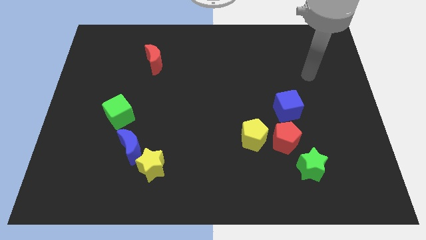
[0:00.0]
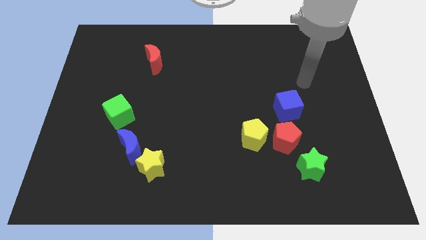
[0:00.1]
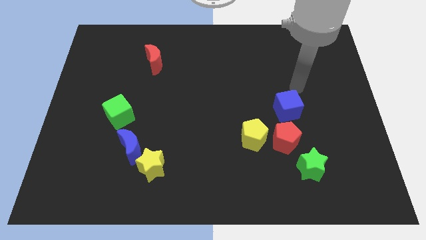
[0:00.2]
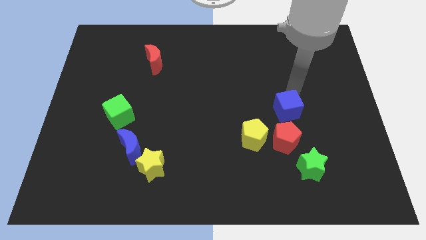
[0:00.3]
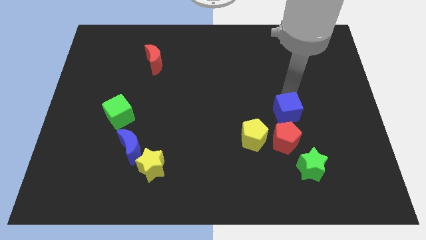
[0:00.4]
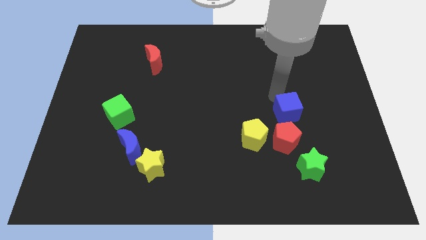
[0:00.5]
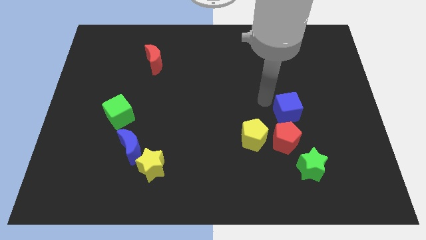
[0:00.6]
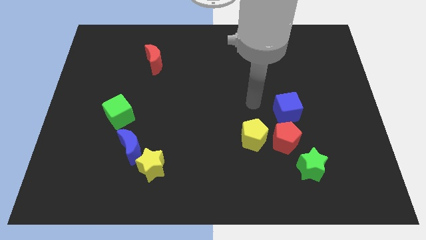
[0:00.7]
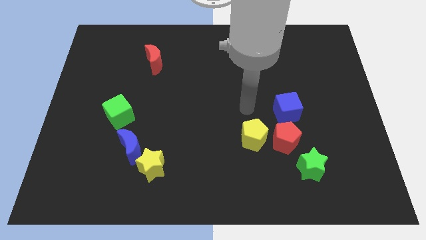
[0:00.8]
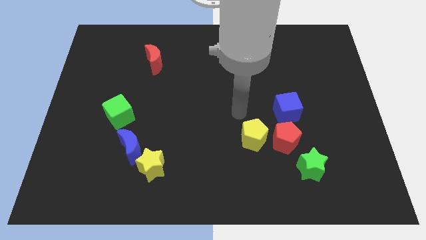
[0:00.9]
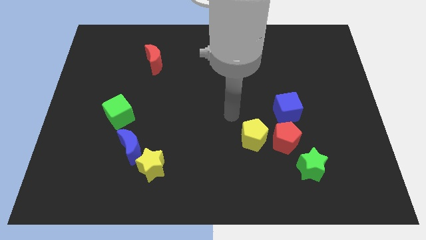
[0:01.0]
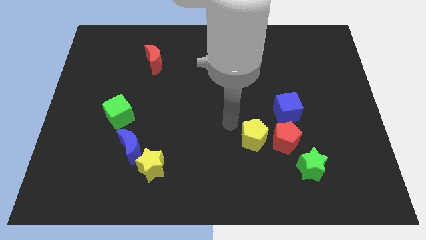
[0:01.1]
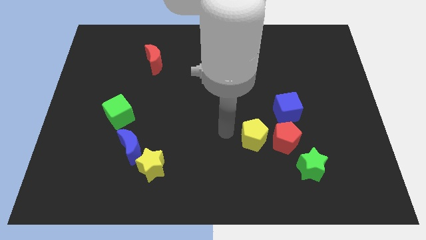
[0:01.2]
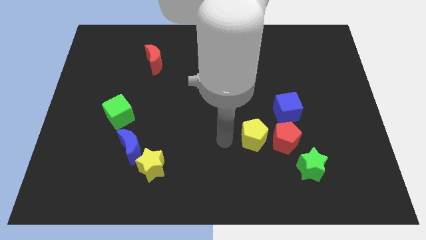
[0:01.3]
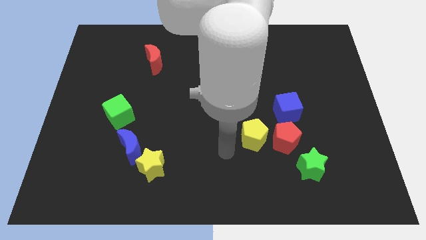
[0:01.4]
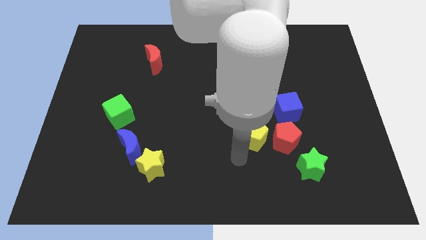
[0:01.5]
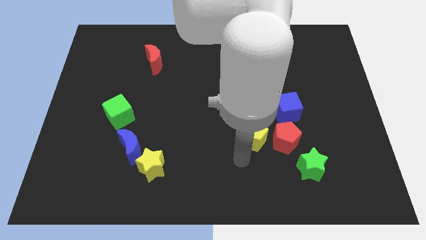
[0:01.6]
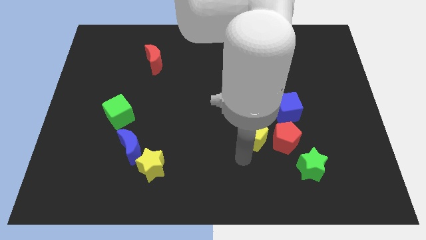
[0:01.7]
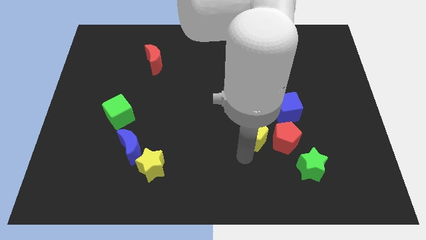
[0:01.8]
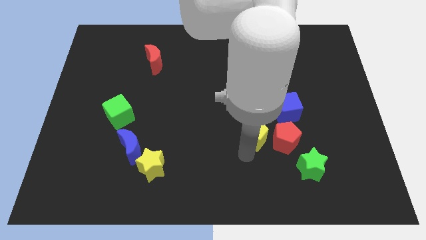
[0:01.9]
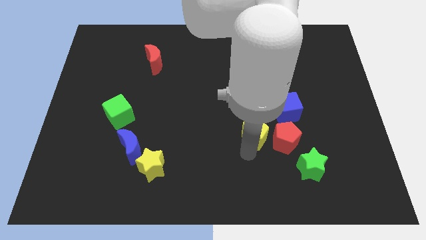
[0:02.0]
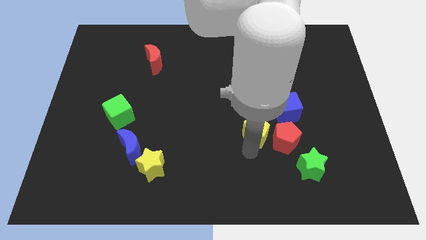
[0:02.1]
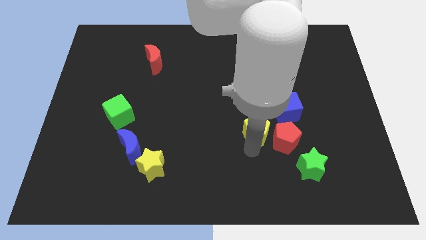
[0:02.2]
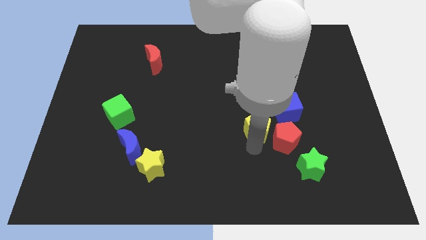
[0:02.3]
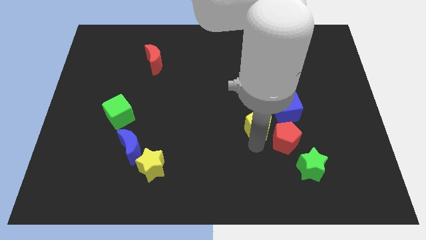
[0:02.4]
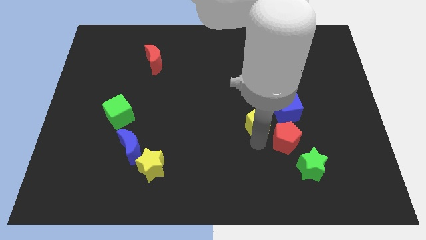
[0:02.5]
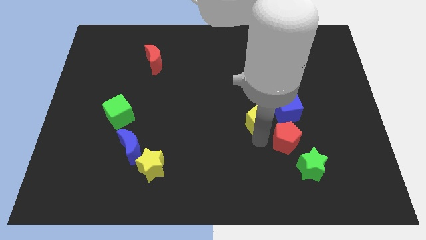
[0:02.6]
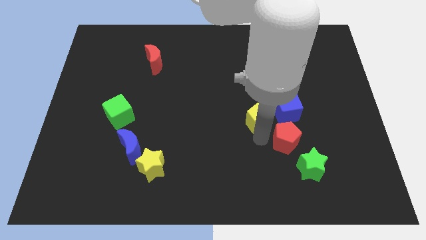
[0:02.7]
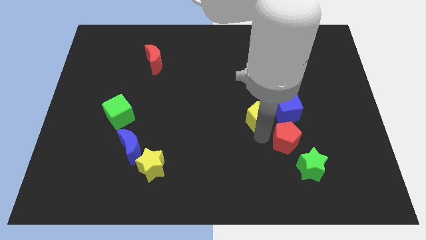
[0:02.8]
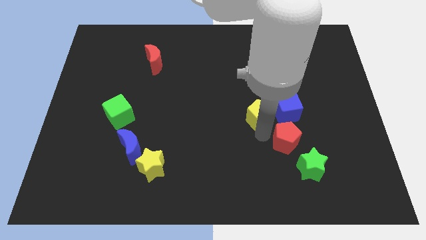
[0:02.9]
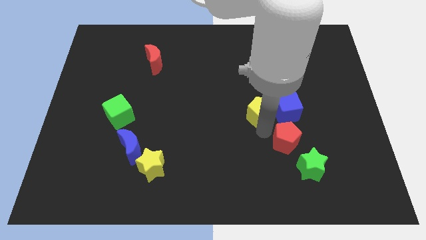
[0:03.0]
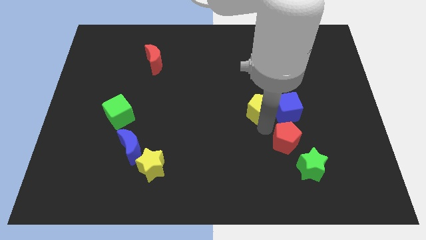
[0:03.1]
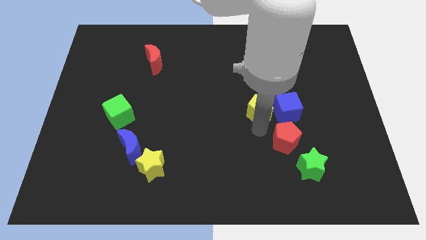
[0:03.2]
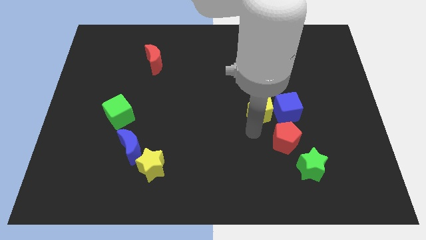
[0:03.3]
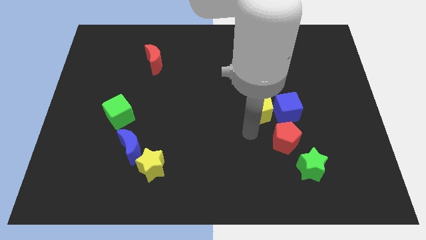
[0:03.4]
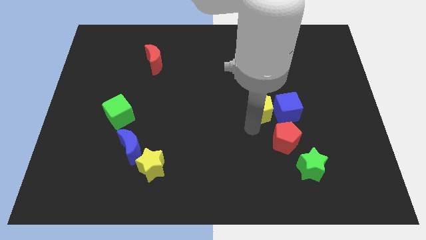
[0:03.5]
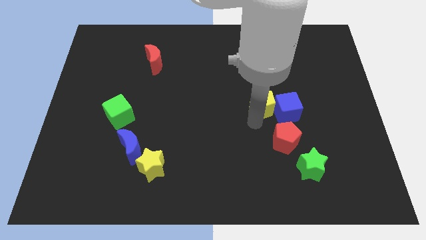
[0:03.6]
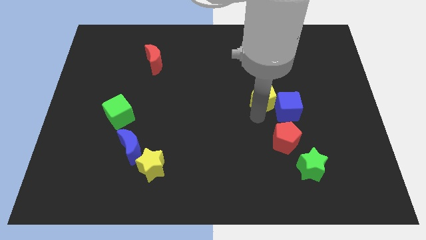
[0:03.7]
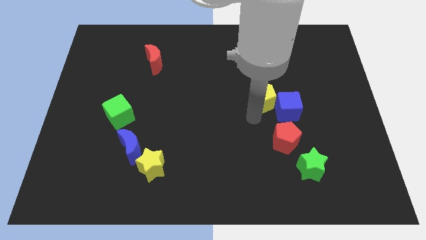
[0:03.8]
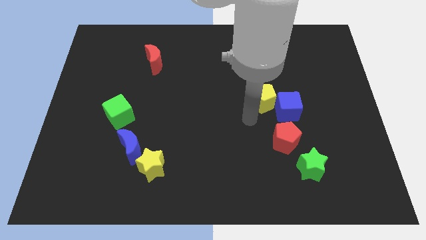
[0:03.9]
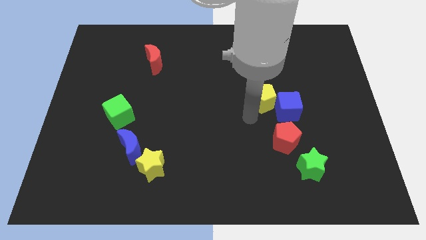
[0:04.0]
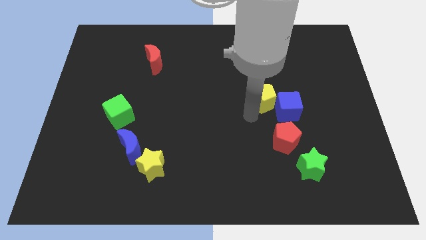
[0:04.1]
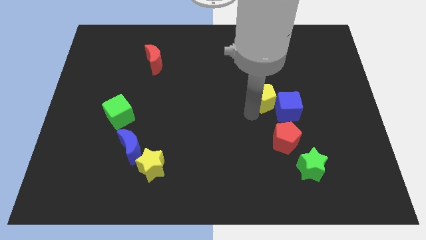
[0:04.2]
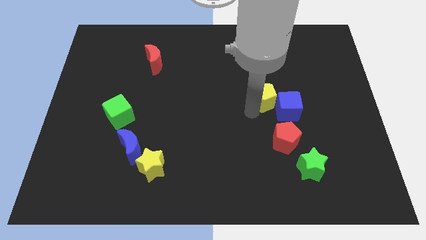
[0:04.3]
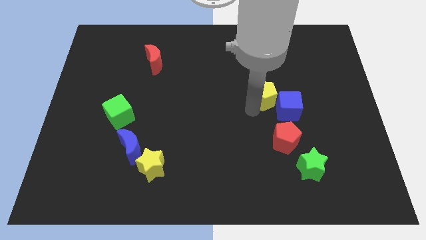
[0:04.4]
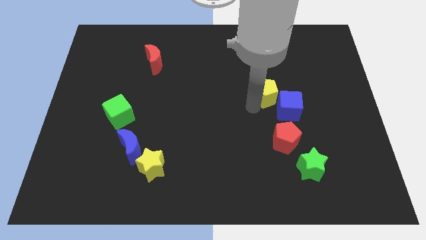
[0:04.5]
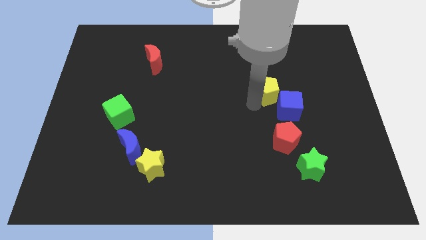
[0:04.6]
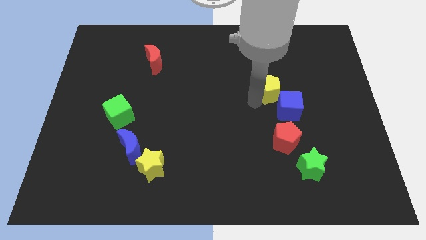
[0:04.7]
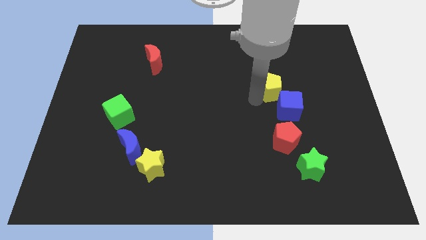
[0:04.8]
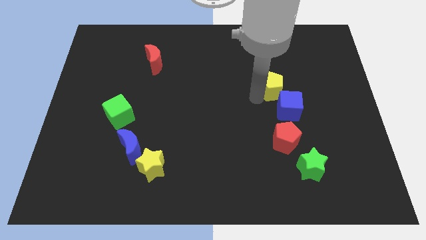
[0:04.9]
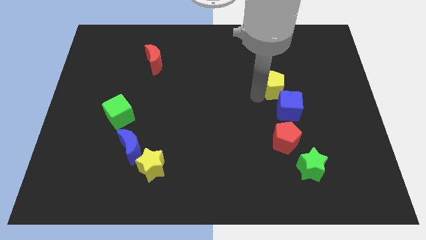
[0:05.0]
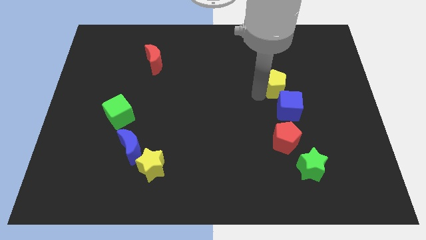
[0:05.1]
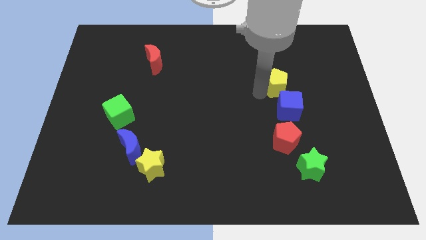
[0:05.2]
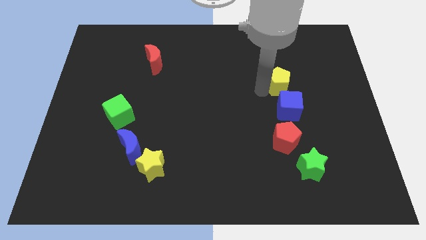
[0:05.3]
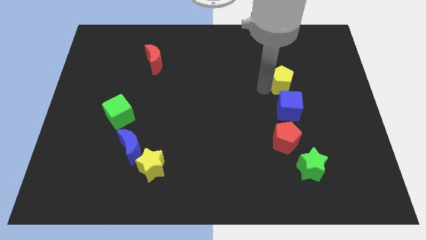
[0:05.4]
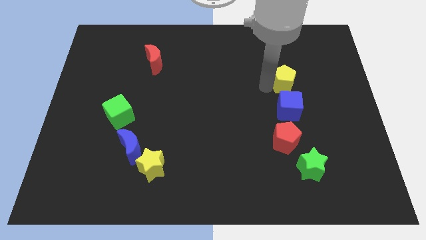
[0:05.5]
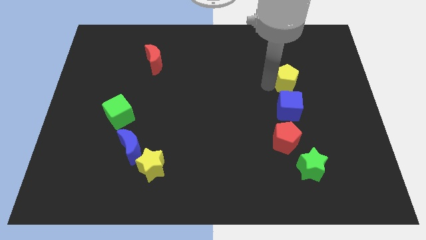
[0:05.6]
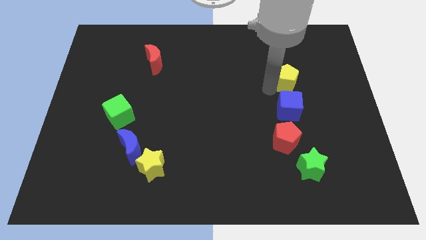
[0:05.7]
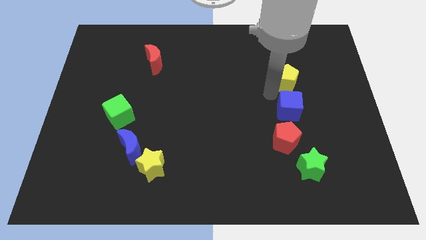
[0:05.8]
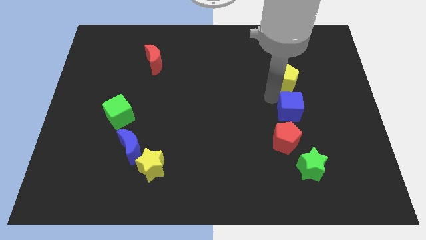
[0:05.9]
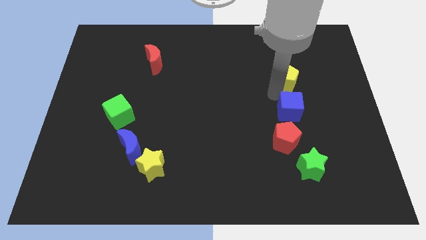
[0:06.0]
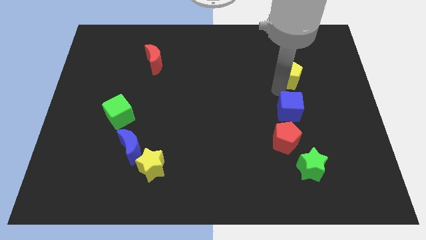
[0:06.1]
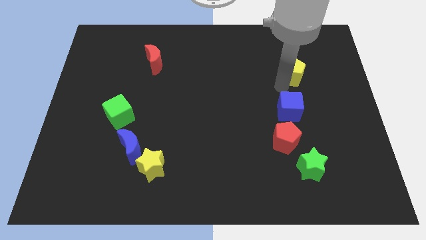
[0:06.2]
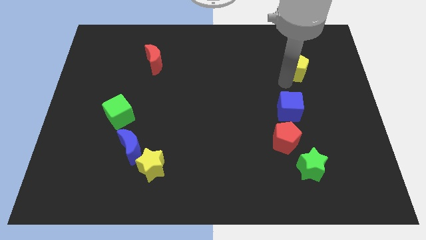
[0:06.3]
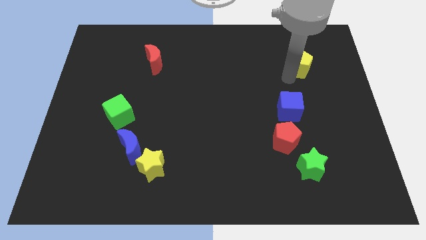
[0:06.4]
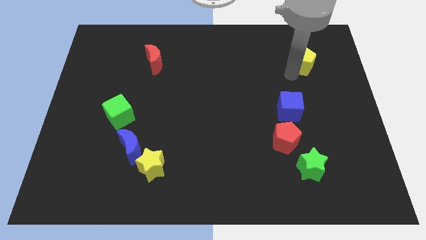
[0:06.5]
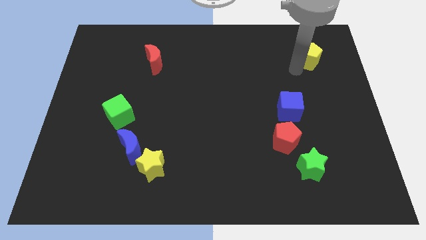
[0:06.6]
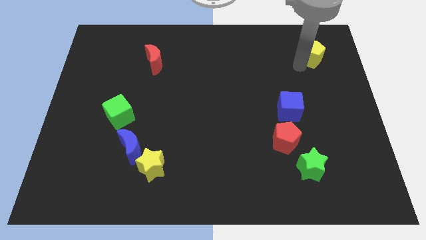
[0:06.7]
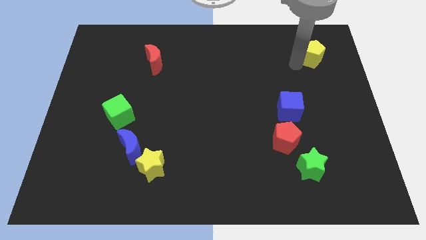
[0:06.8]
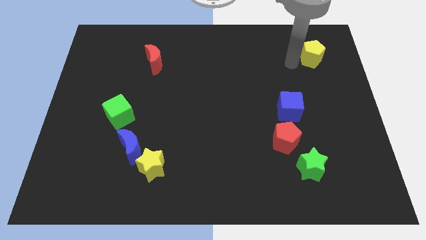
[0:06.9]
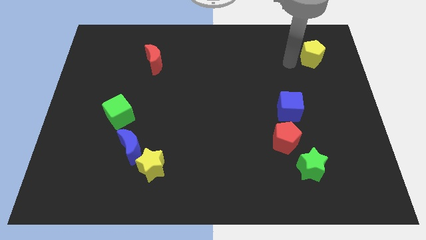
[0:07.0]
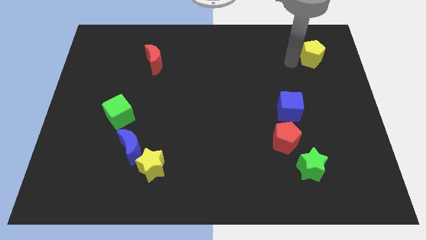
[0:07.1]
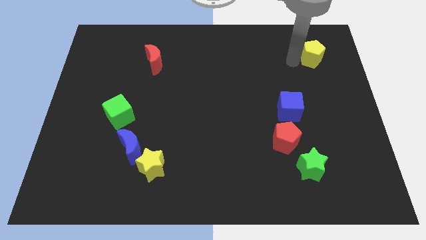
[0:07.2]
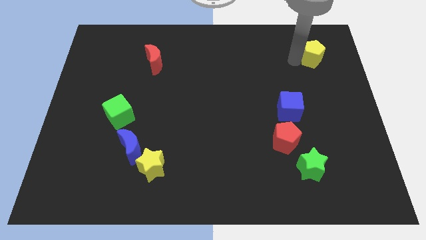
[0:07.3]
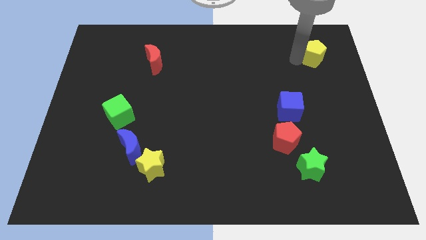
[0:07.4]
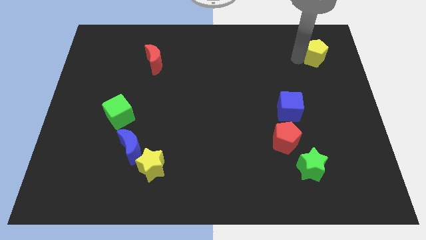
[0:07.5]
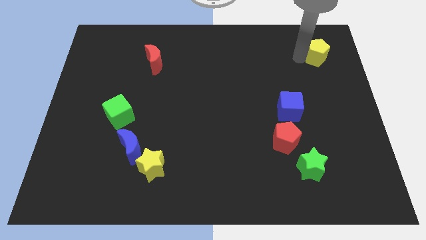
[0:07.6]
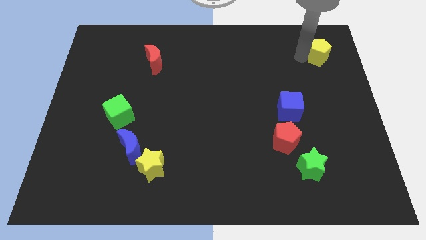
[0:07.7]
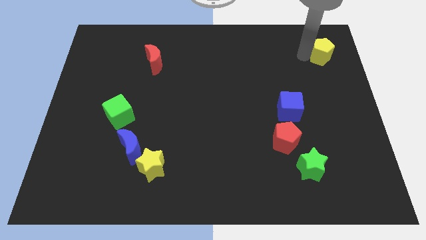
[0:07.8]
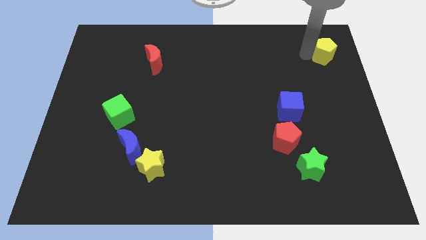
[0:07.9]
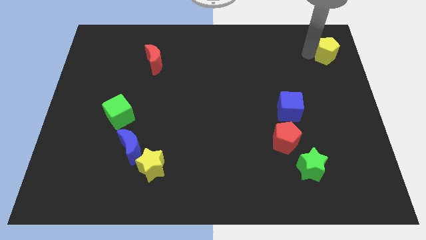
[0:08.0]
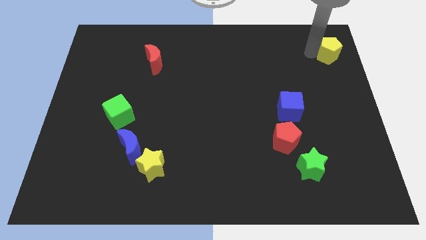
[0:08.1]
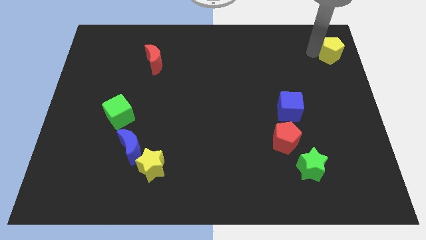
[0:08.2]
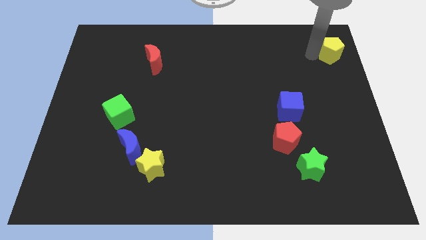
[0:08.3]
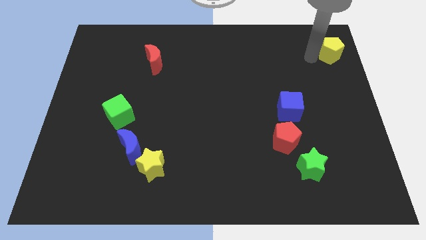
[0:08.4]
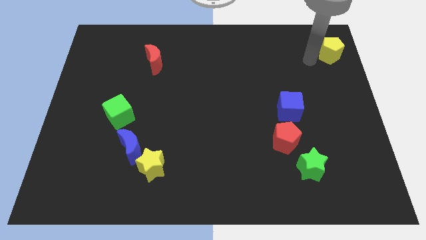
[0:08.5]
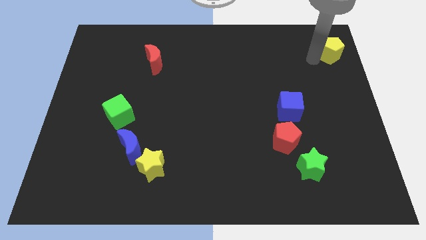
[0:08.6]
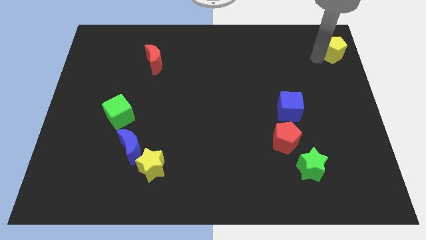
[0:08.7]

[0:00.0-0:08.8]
put the yellow pentagon to the top right
